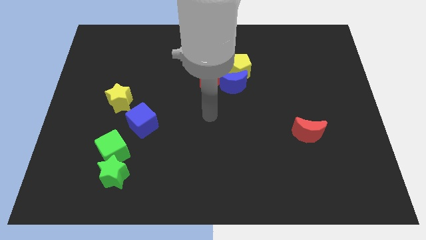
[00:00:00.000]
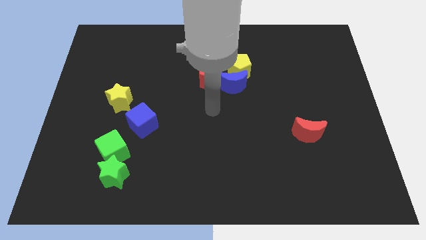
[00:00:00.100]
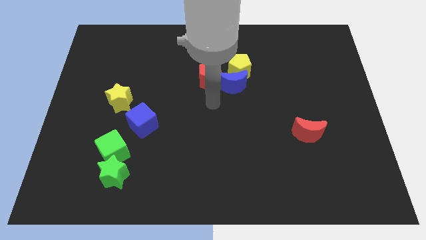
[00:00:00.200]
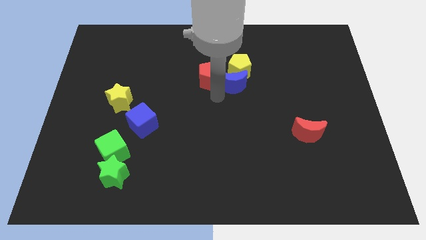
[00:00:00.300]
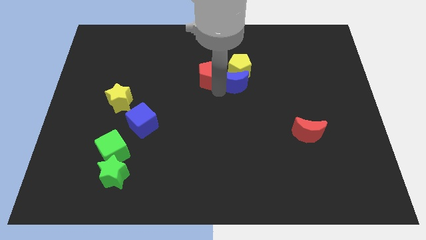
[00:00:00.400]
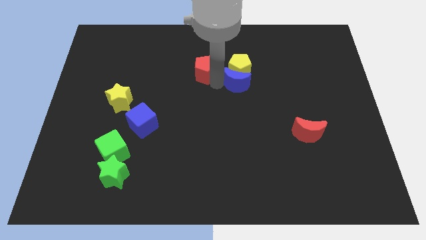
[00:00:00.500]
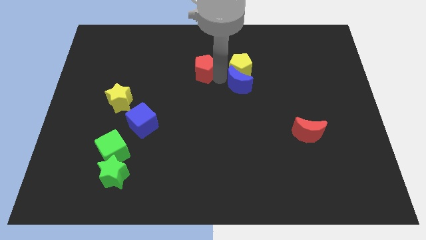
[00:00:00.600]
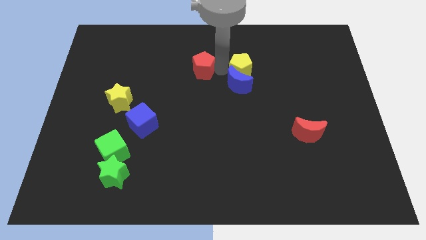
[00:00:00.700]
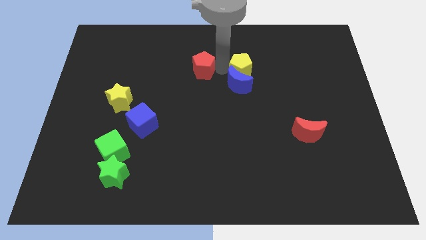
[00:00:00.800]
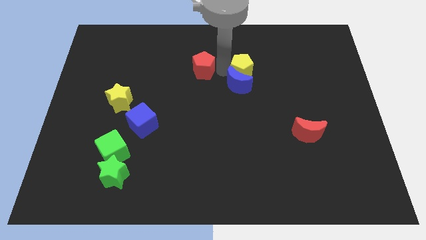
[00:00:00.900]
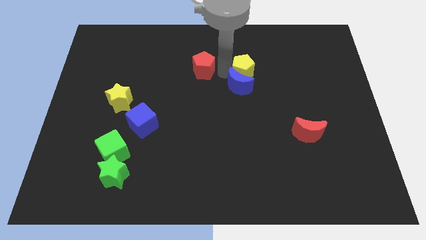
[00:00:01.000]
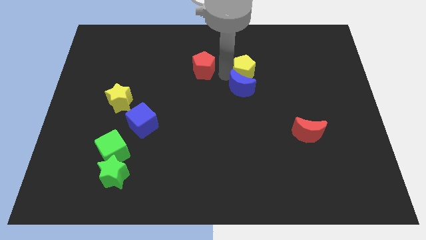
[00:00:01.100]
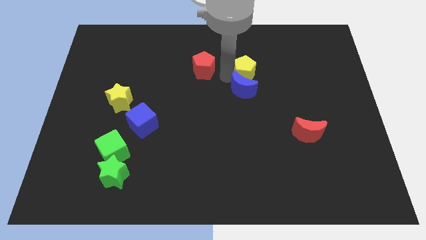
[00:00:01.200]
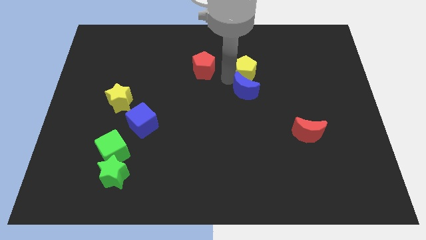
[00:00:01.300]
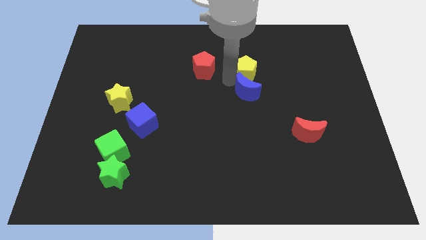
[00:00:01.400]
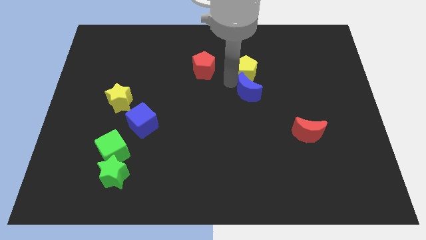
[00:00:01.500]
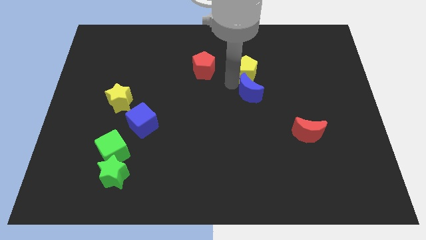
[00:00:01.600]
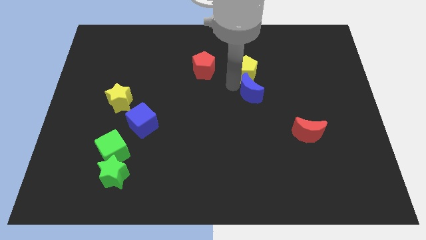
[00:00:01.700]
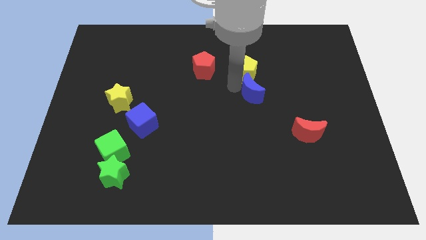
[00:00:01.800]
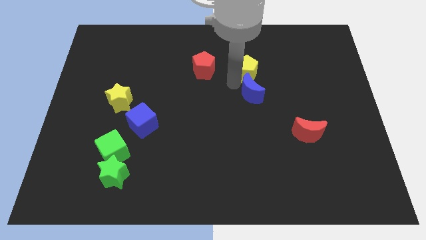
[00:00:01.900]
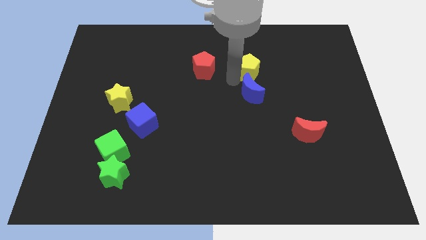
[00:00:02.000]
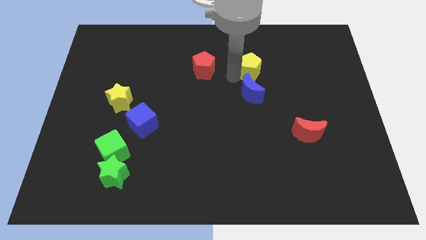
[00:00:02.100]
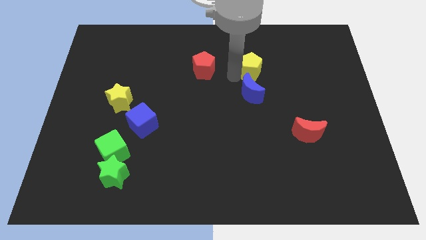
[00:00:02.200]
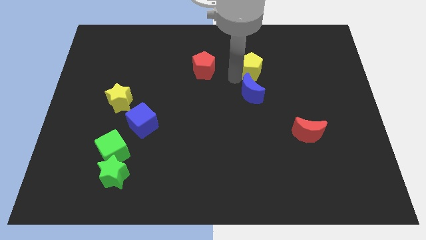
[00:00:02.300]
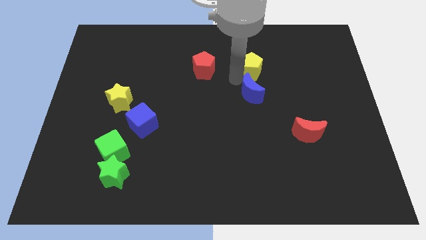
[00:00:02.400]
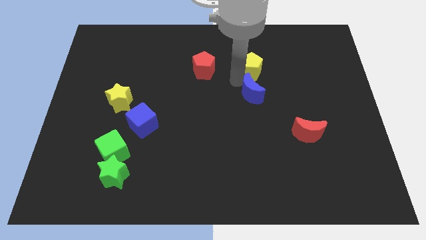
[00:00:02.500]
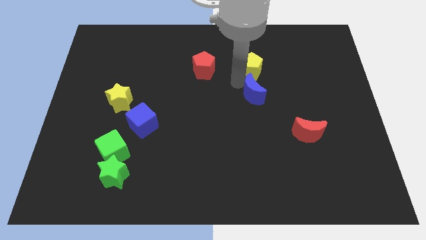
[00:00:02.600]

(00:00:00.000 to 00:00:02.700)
pull the blue moon apart from the yellow pentagon and red pentagon

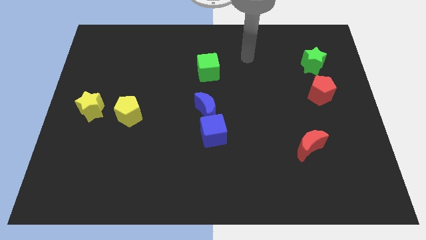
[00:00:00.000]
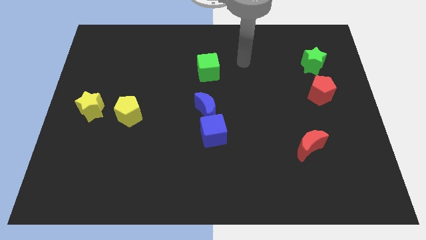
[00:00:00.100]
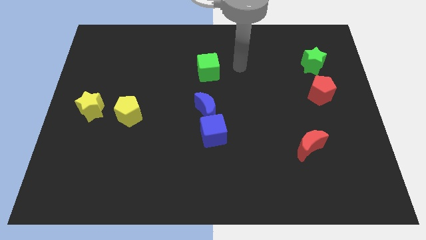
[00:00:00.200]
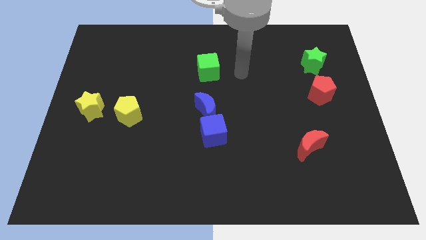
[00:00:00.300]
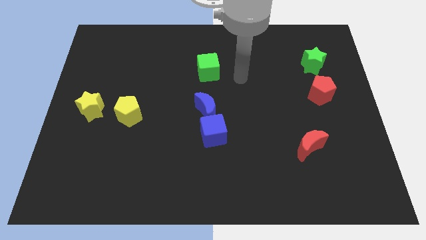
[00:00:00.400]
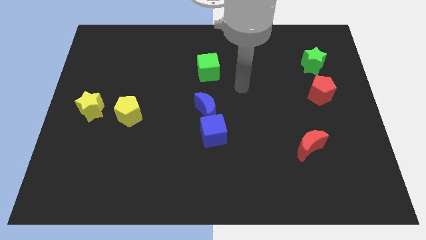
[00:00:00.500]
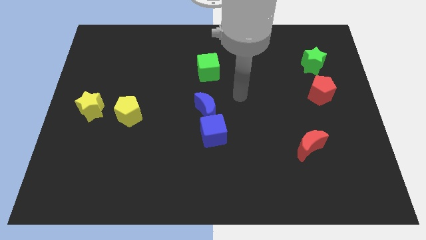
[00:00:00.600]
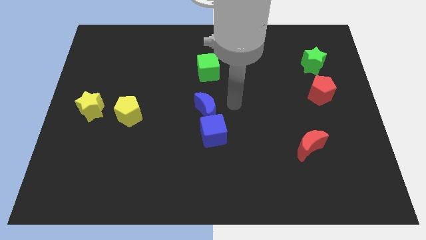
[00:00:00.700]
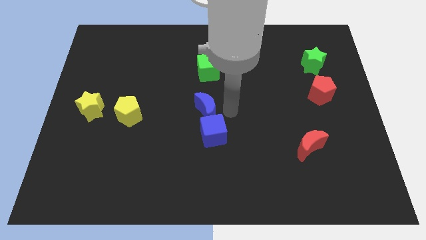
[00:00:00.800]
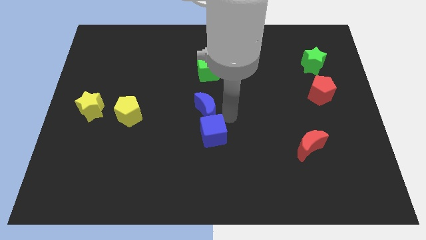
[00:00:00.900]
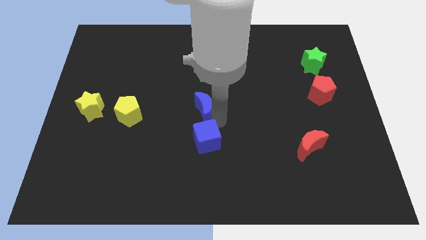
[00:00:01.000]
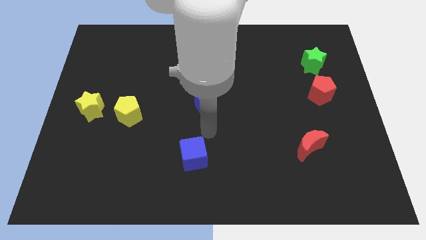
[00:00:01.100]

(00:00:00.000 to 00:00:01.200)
move the blue moon away from the blue cube

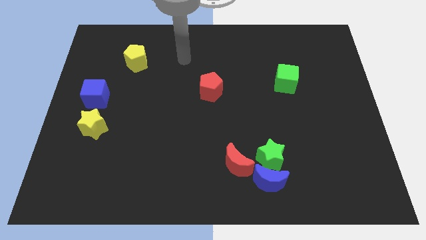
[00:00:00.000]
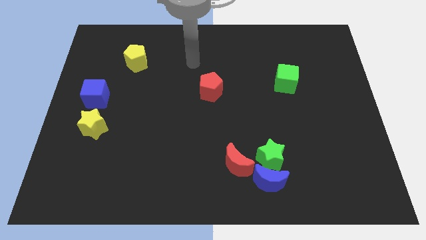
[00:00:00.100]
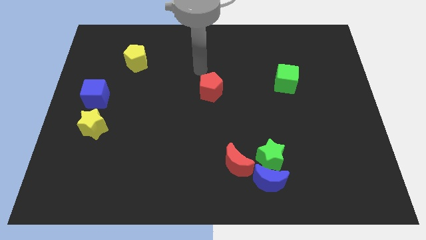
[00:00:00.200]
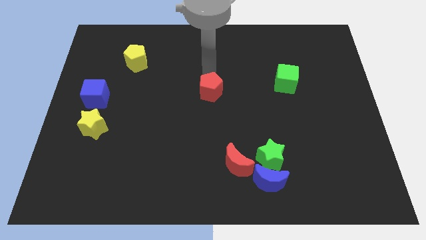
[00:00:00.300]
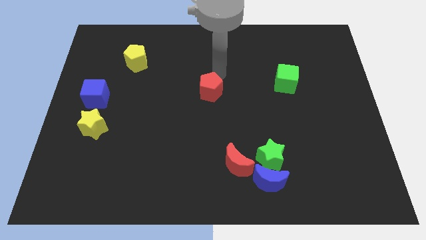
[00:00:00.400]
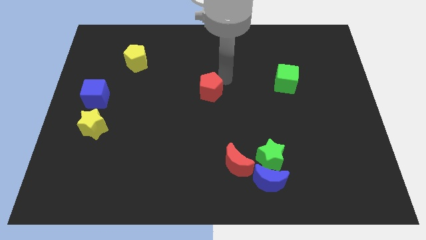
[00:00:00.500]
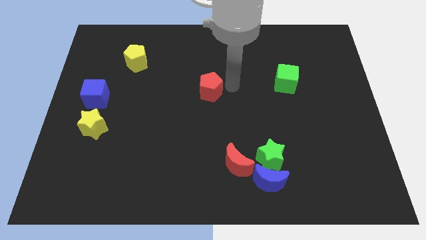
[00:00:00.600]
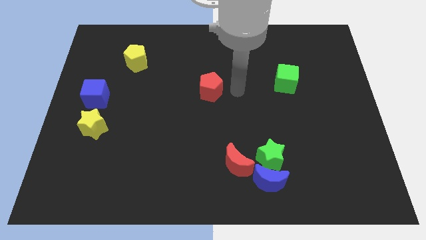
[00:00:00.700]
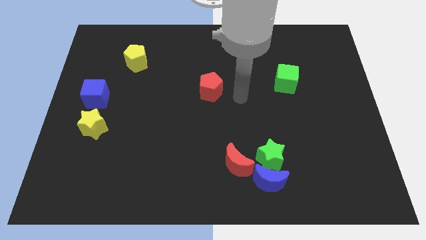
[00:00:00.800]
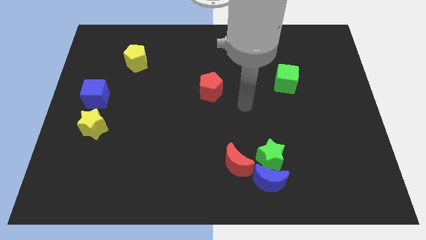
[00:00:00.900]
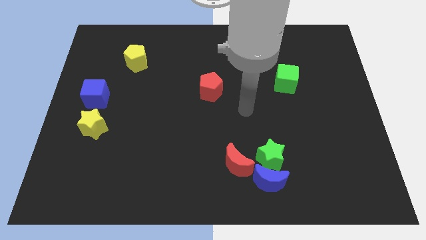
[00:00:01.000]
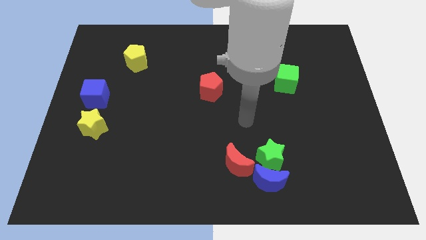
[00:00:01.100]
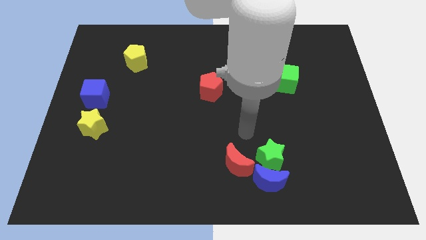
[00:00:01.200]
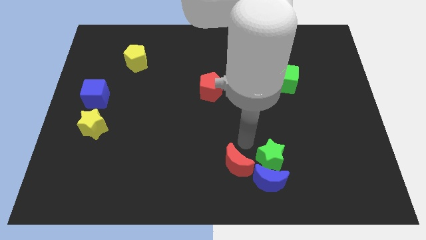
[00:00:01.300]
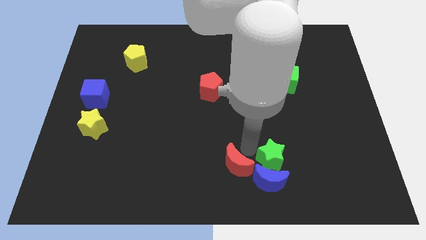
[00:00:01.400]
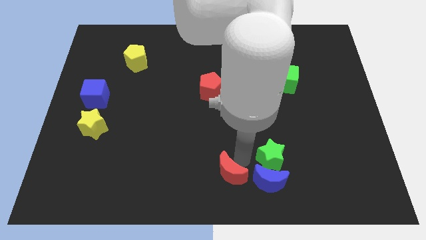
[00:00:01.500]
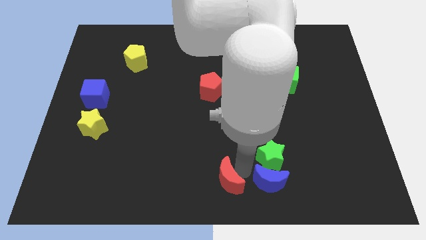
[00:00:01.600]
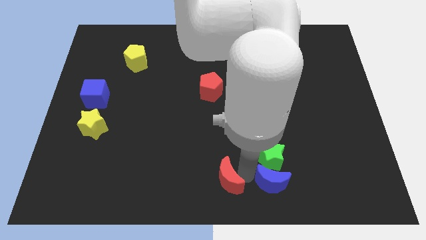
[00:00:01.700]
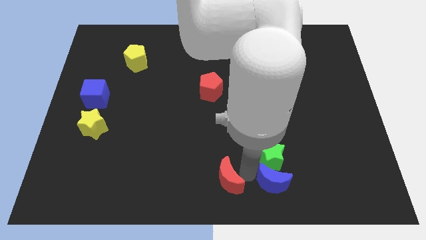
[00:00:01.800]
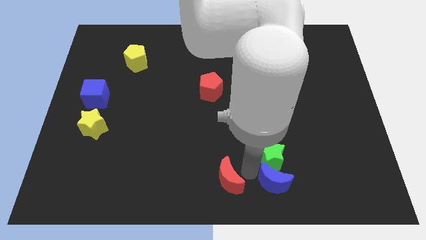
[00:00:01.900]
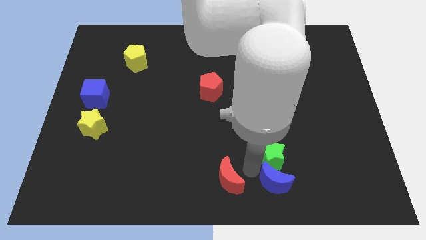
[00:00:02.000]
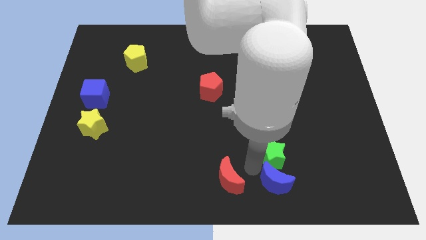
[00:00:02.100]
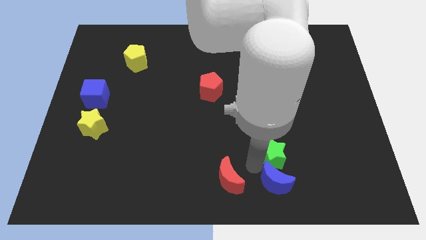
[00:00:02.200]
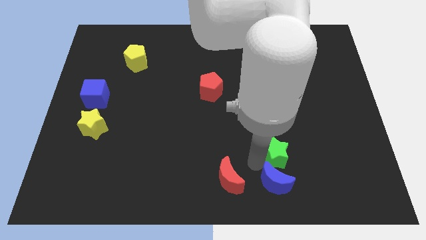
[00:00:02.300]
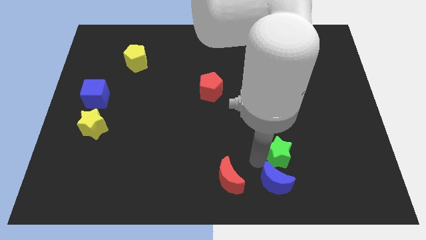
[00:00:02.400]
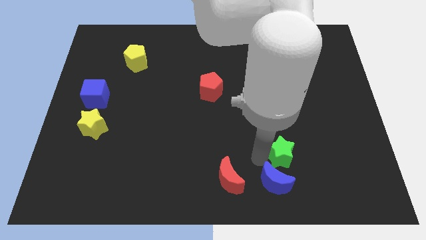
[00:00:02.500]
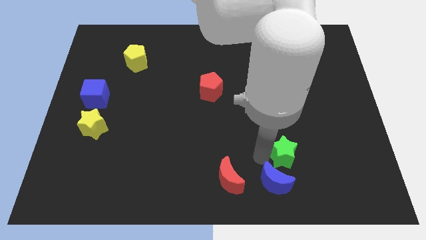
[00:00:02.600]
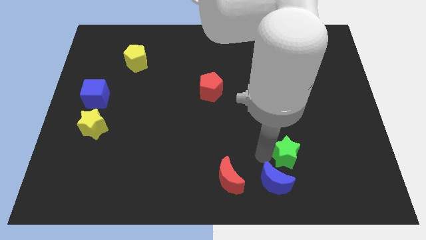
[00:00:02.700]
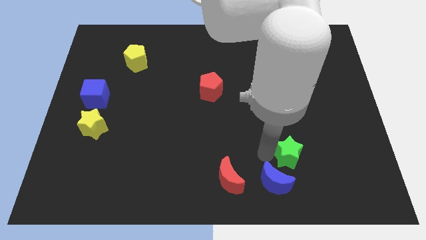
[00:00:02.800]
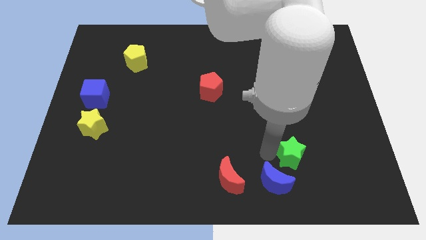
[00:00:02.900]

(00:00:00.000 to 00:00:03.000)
move the green star away from the blue moon and red moon

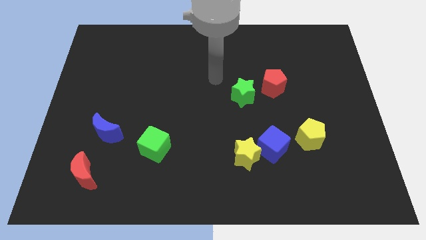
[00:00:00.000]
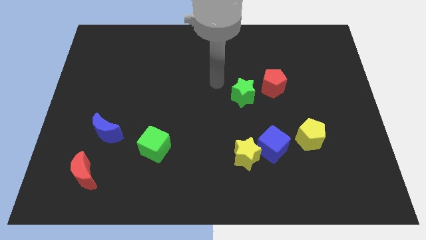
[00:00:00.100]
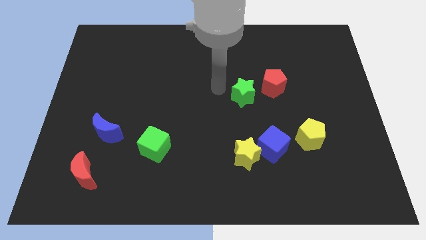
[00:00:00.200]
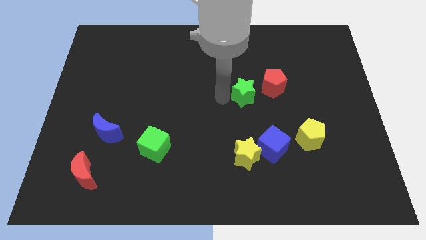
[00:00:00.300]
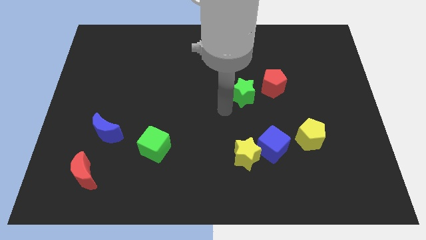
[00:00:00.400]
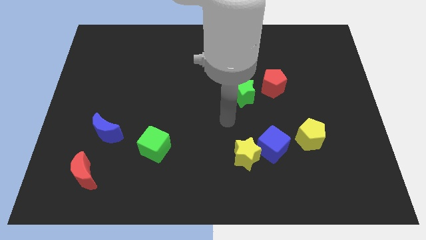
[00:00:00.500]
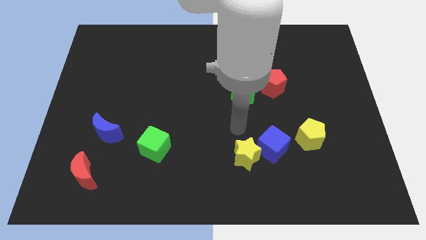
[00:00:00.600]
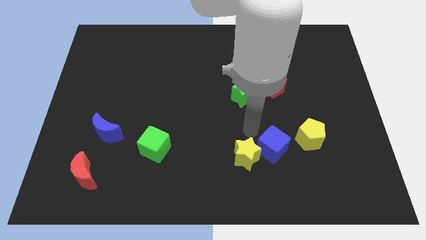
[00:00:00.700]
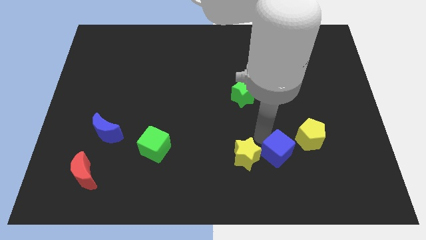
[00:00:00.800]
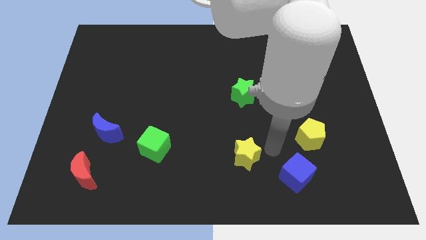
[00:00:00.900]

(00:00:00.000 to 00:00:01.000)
pull the yellow star apart from the blue cube

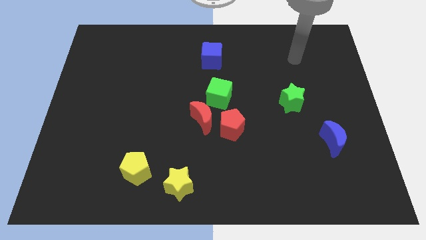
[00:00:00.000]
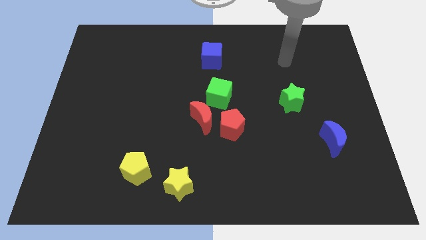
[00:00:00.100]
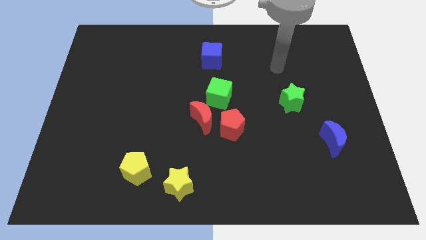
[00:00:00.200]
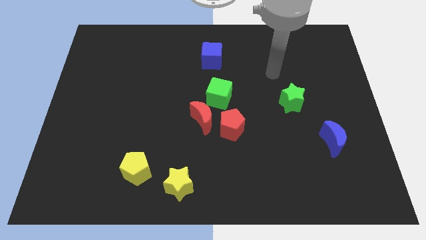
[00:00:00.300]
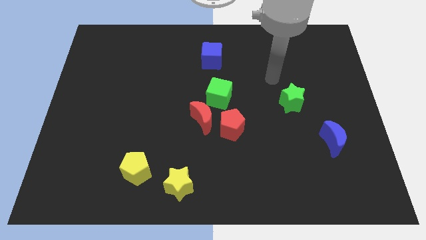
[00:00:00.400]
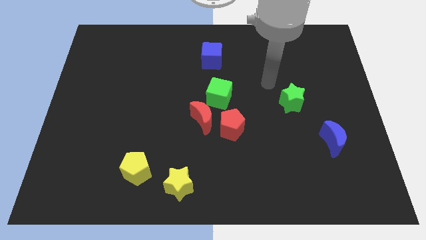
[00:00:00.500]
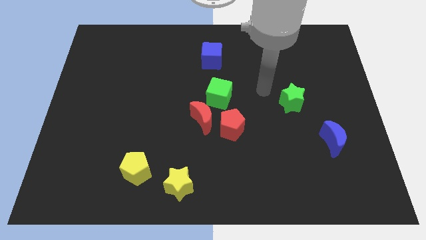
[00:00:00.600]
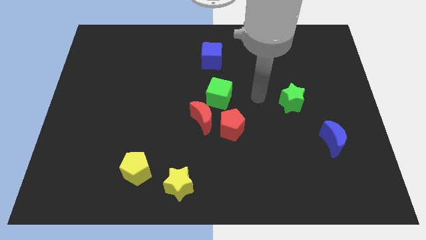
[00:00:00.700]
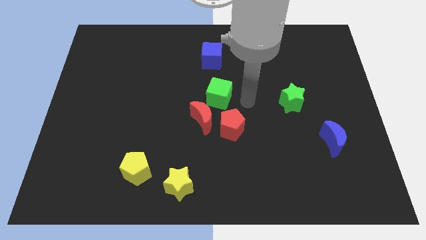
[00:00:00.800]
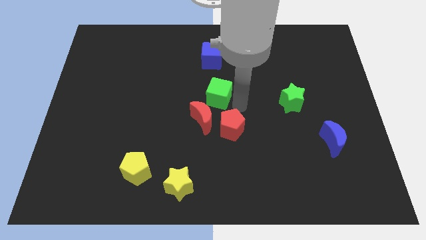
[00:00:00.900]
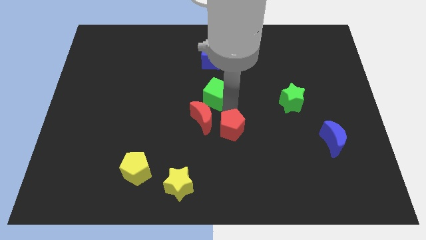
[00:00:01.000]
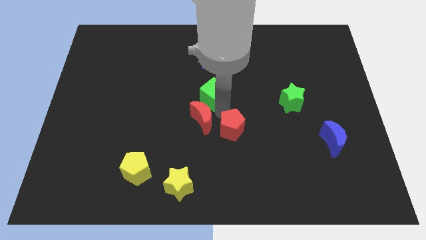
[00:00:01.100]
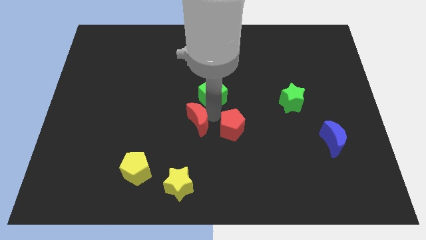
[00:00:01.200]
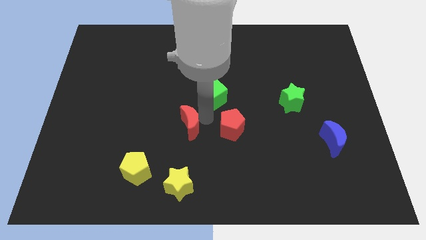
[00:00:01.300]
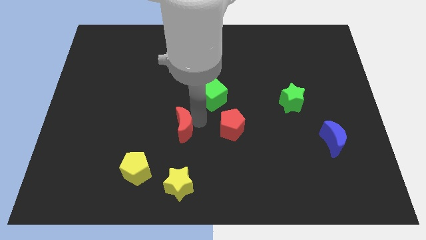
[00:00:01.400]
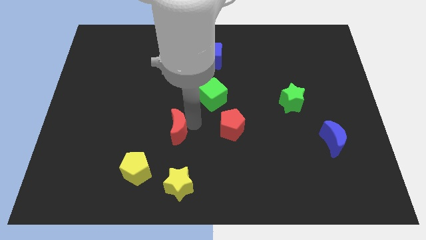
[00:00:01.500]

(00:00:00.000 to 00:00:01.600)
separate the red moon from the red pentagon and green cube
